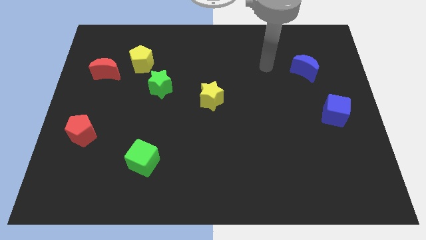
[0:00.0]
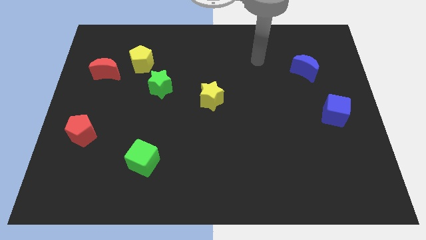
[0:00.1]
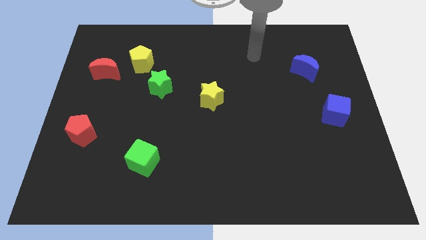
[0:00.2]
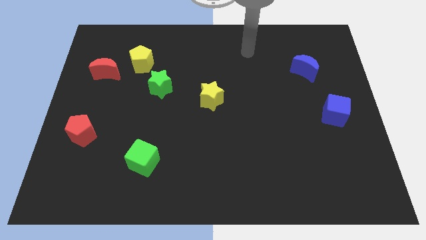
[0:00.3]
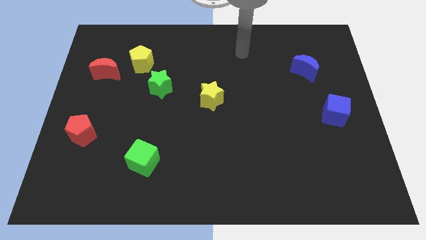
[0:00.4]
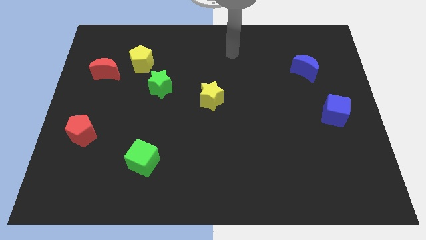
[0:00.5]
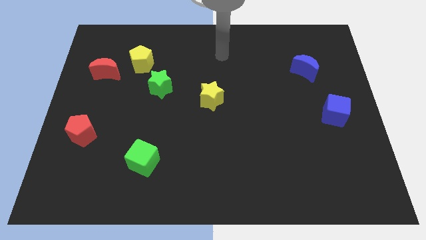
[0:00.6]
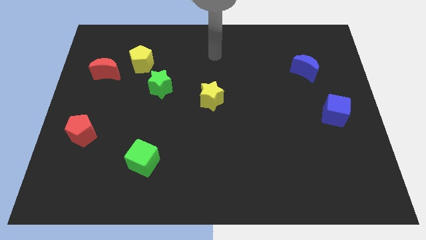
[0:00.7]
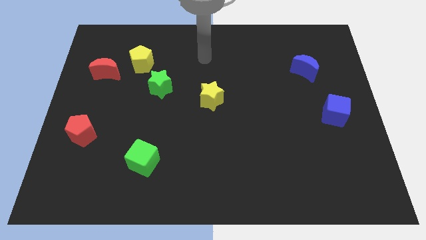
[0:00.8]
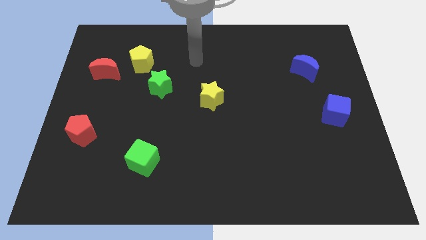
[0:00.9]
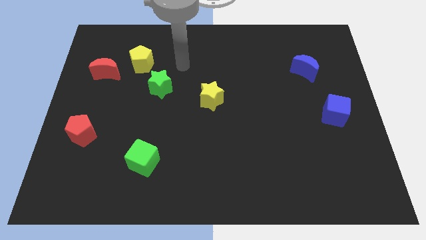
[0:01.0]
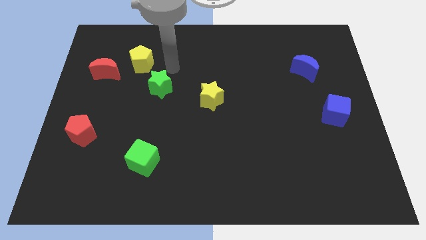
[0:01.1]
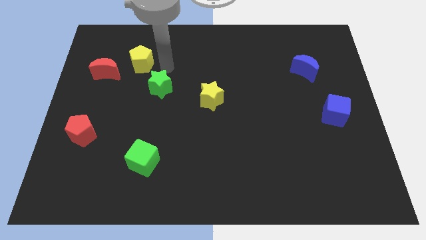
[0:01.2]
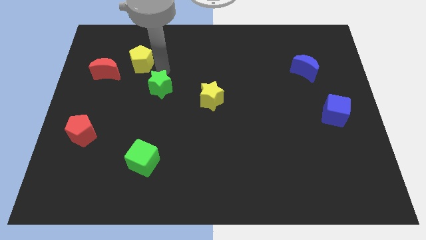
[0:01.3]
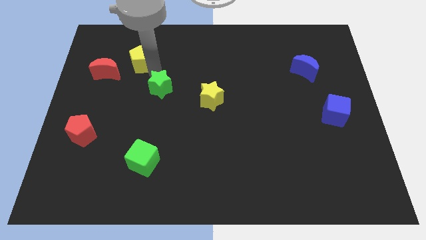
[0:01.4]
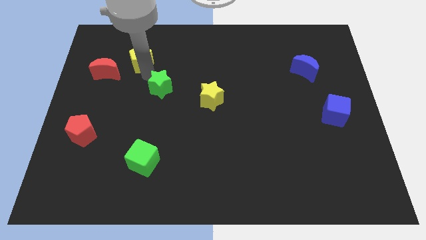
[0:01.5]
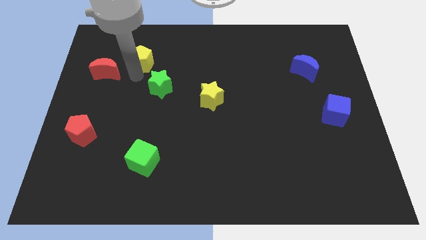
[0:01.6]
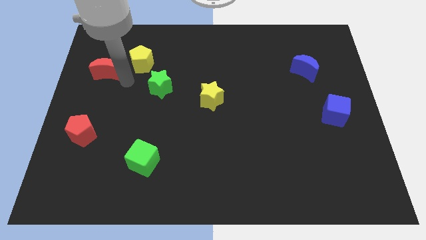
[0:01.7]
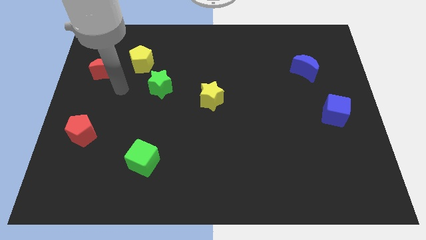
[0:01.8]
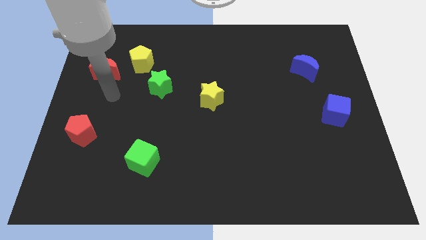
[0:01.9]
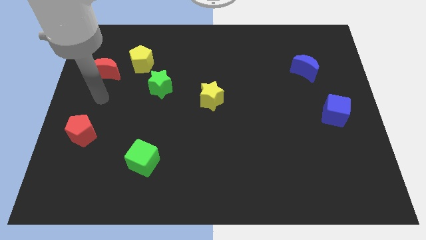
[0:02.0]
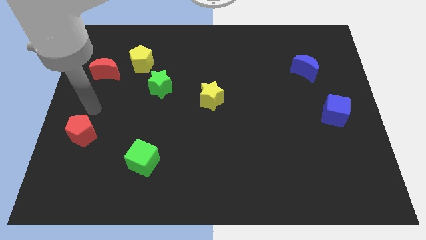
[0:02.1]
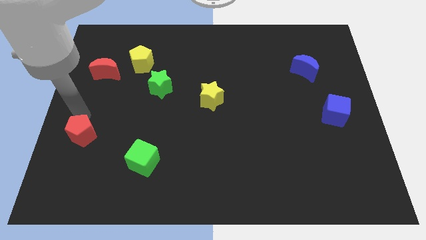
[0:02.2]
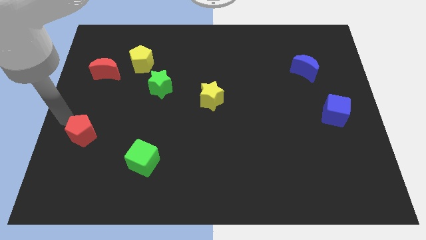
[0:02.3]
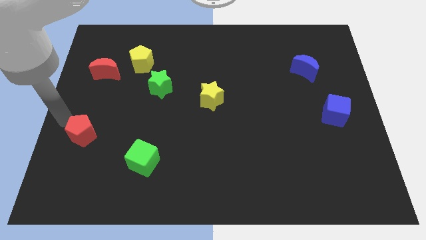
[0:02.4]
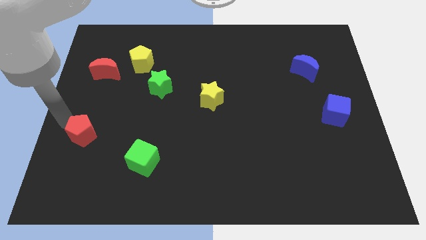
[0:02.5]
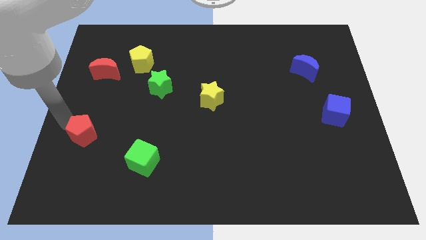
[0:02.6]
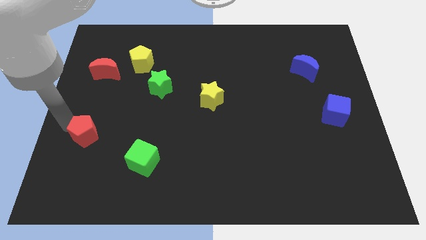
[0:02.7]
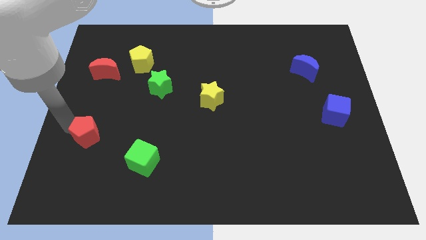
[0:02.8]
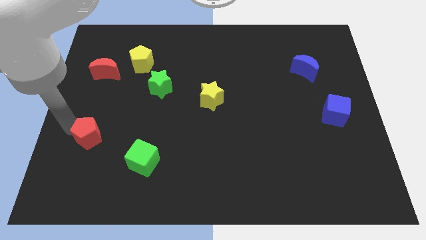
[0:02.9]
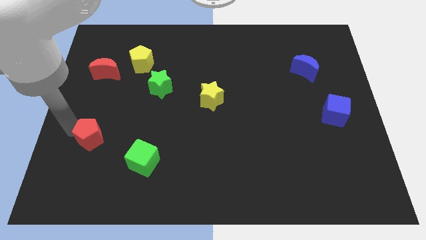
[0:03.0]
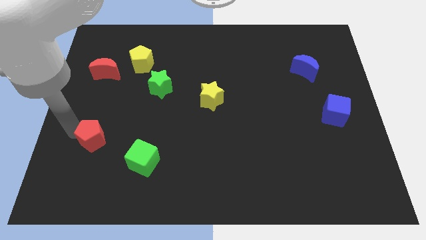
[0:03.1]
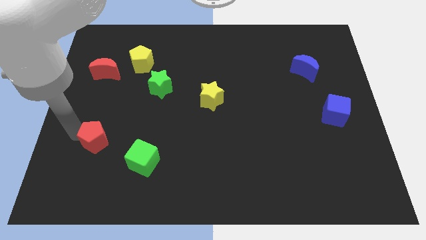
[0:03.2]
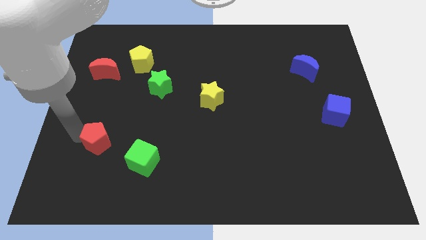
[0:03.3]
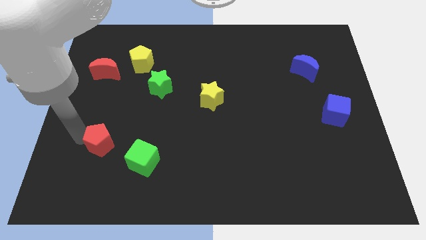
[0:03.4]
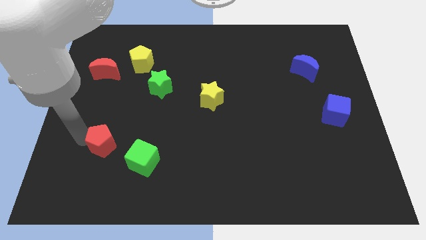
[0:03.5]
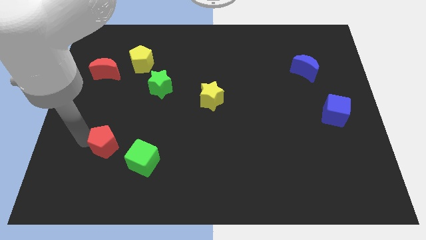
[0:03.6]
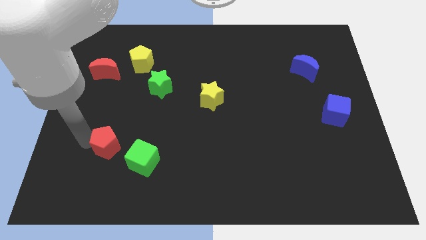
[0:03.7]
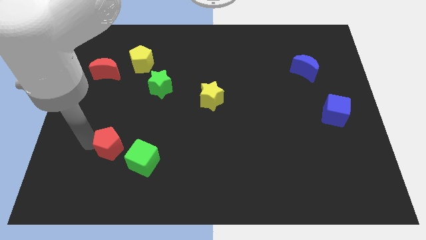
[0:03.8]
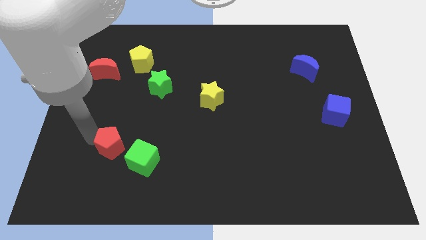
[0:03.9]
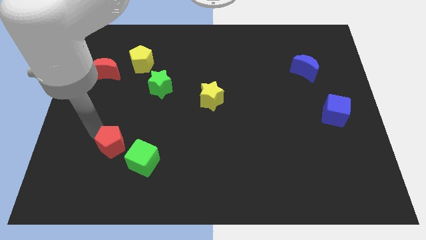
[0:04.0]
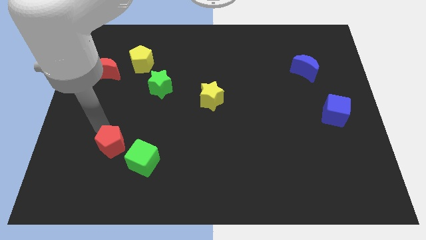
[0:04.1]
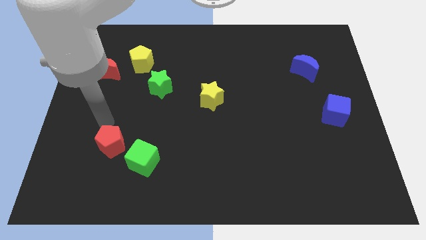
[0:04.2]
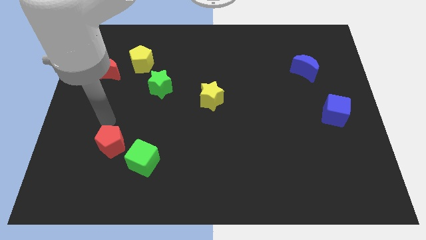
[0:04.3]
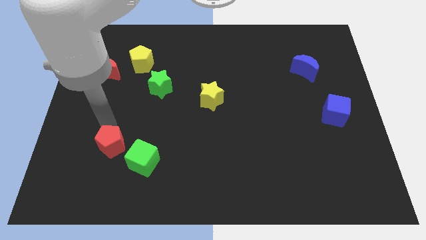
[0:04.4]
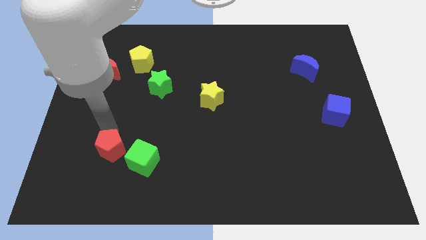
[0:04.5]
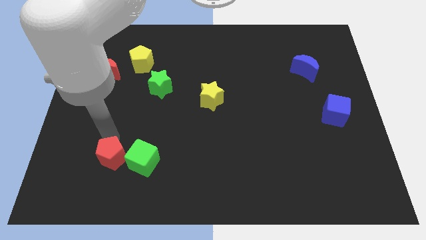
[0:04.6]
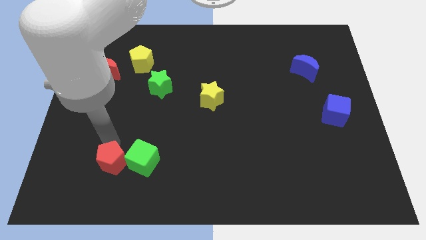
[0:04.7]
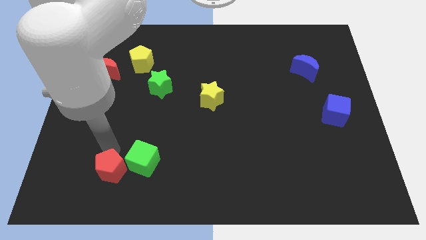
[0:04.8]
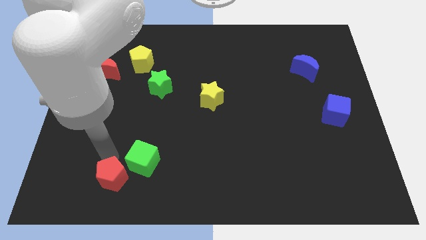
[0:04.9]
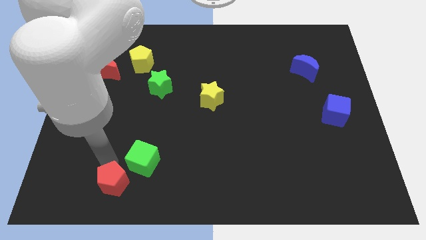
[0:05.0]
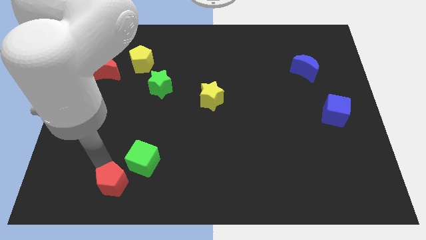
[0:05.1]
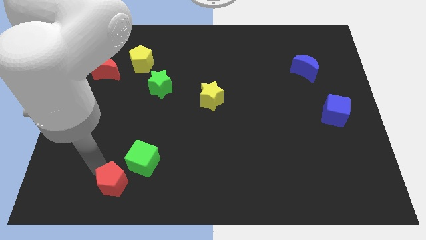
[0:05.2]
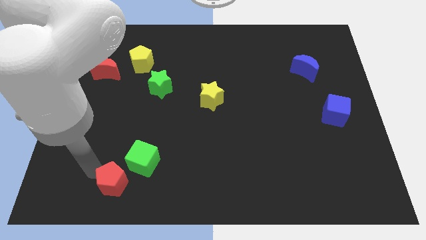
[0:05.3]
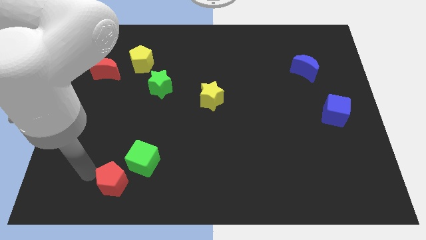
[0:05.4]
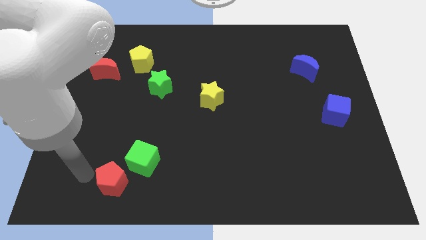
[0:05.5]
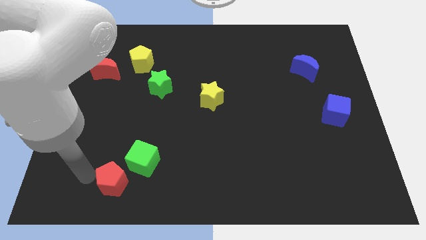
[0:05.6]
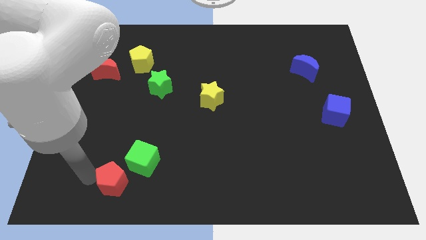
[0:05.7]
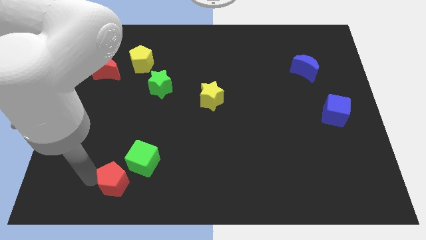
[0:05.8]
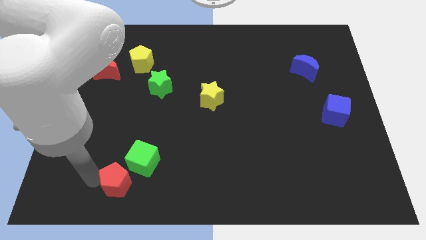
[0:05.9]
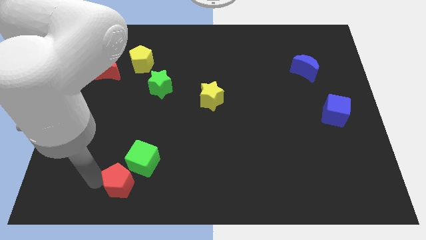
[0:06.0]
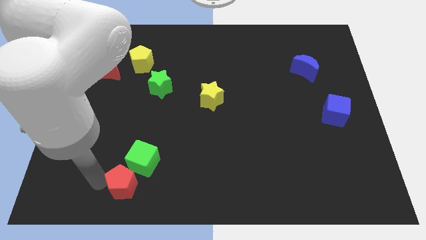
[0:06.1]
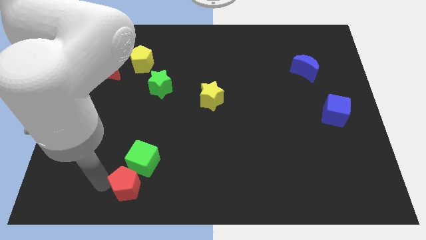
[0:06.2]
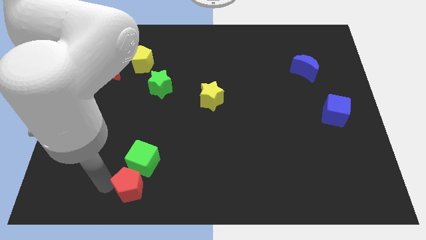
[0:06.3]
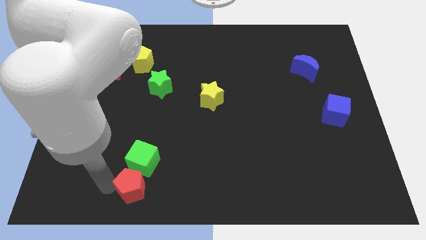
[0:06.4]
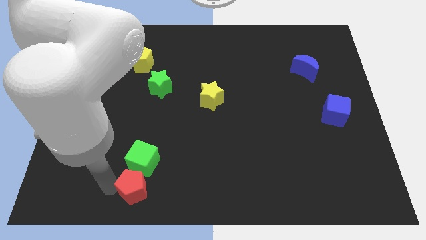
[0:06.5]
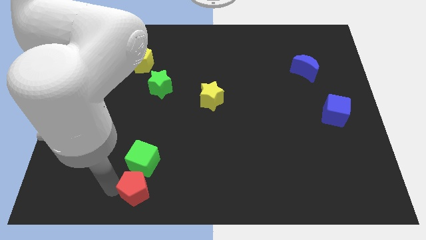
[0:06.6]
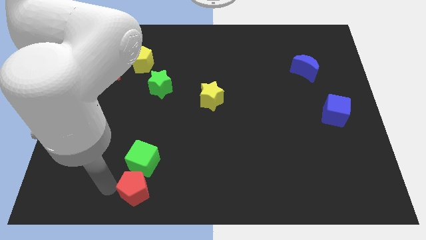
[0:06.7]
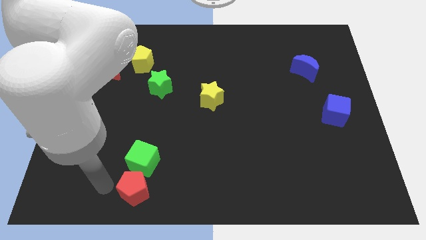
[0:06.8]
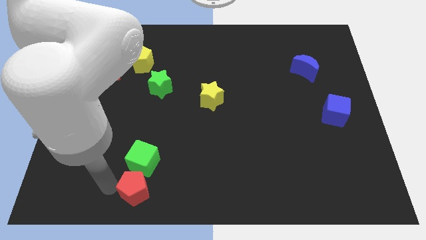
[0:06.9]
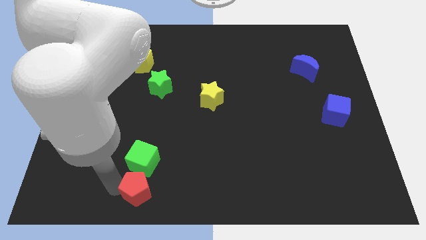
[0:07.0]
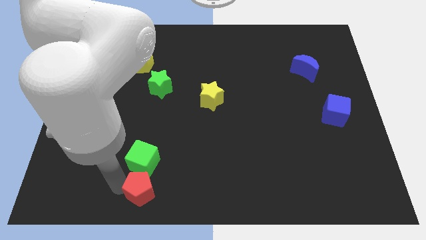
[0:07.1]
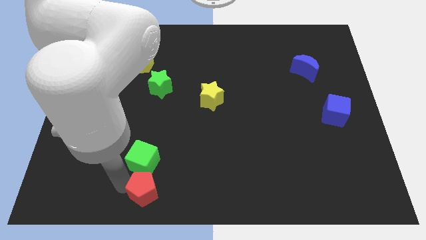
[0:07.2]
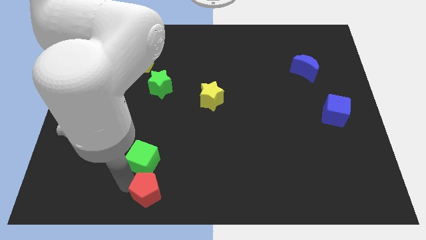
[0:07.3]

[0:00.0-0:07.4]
slide the red pentagon to the bottom
